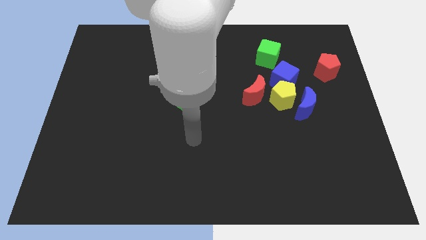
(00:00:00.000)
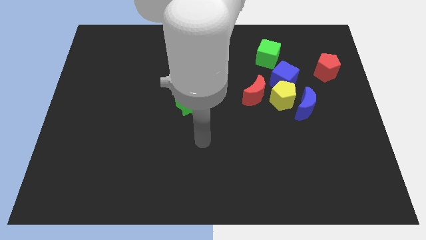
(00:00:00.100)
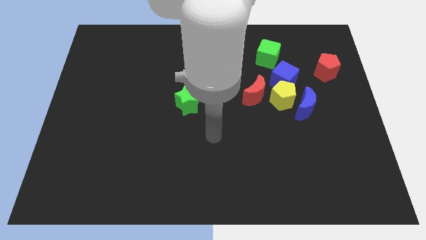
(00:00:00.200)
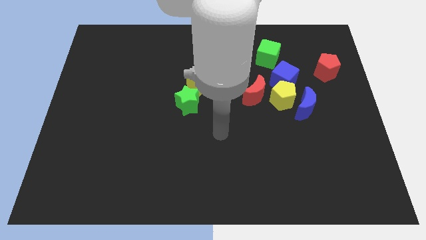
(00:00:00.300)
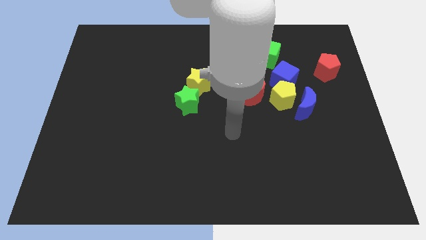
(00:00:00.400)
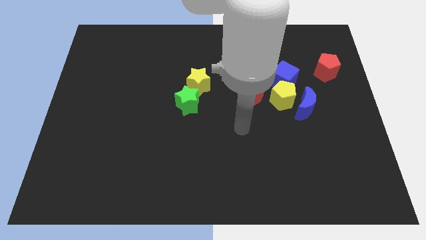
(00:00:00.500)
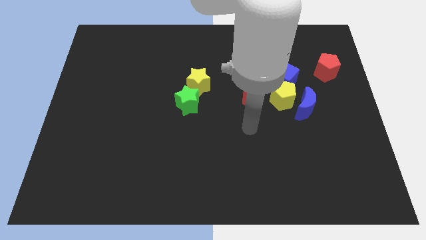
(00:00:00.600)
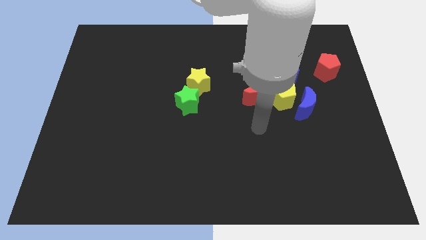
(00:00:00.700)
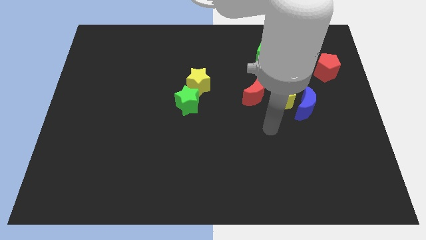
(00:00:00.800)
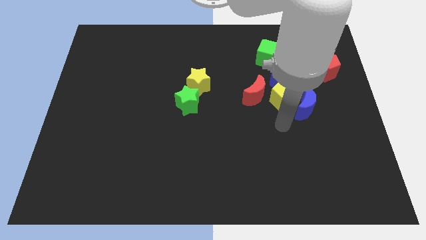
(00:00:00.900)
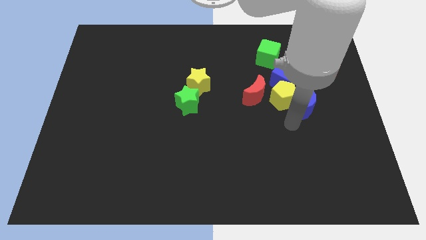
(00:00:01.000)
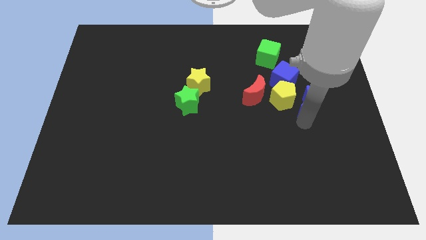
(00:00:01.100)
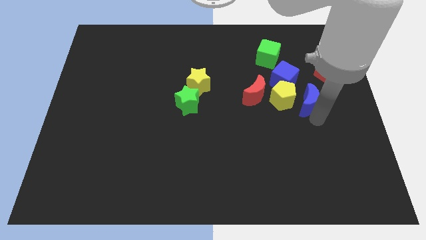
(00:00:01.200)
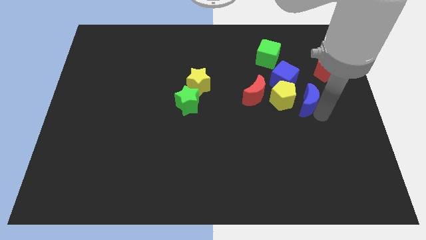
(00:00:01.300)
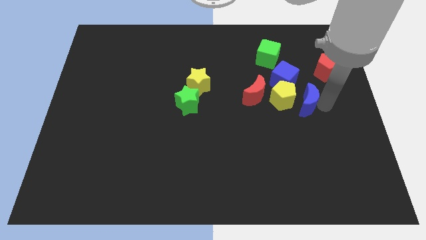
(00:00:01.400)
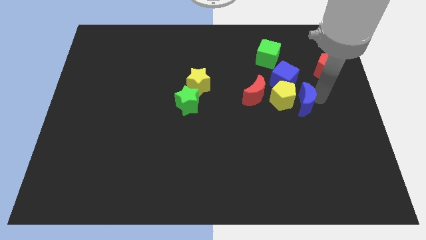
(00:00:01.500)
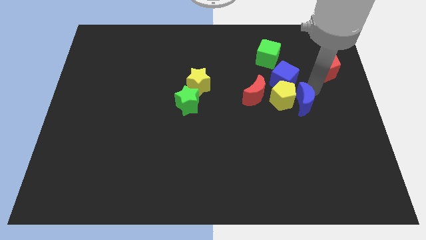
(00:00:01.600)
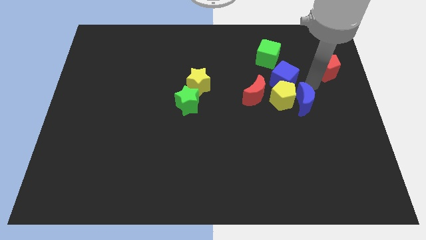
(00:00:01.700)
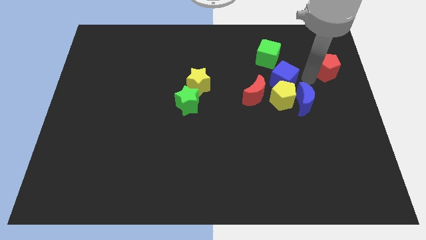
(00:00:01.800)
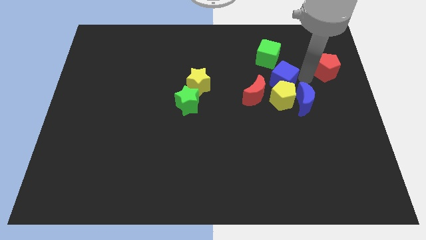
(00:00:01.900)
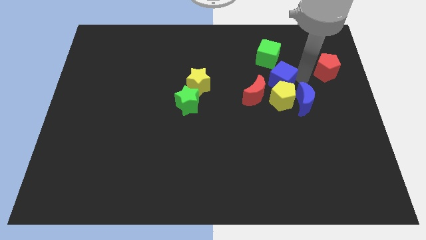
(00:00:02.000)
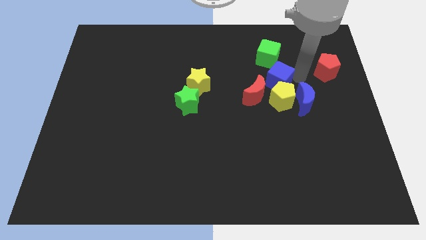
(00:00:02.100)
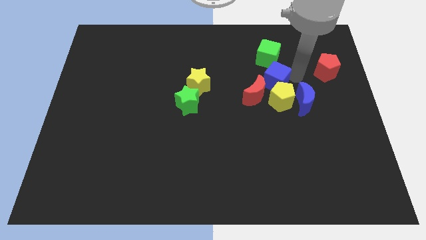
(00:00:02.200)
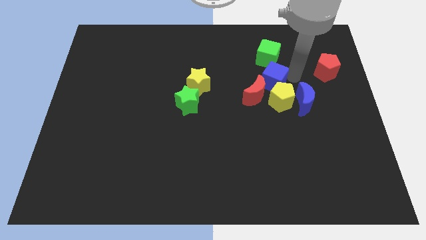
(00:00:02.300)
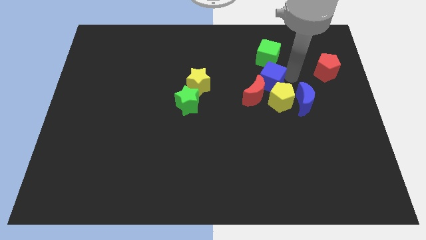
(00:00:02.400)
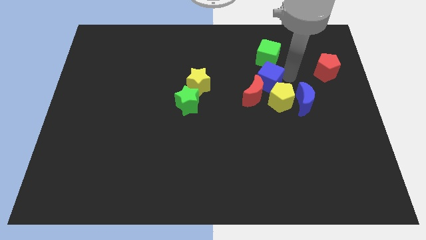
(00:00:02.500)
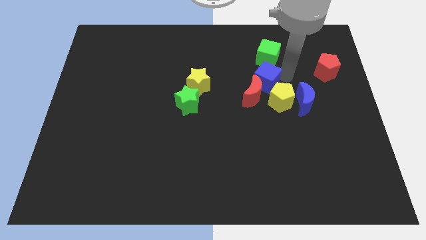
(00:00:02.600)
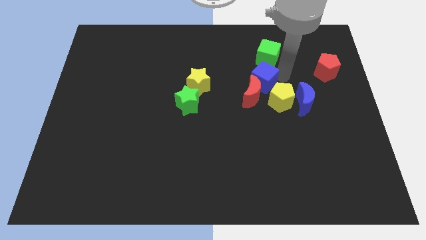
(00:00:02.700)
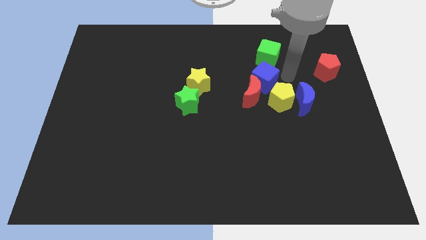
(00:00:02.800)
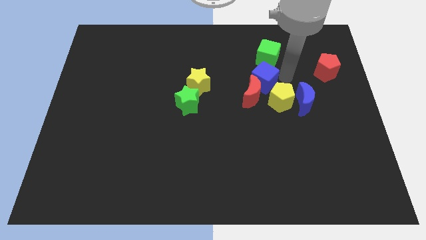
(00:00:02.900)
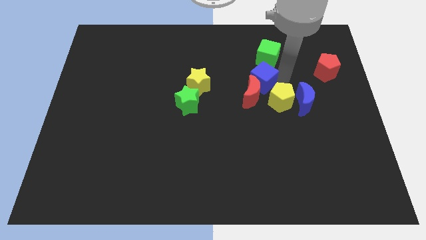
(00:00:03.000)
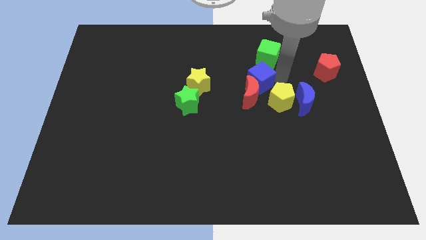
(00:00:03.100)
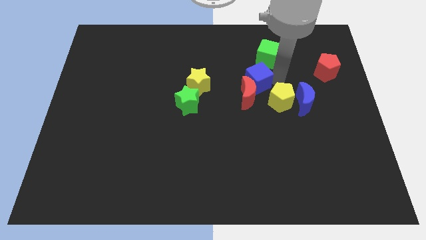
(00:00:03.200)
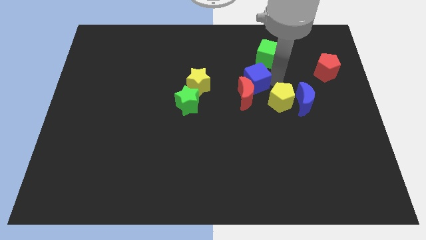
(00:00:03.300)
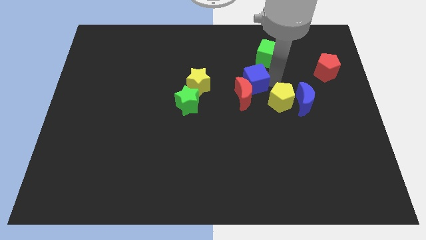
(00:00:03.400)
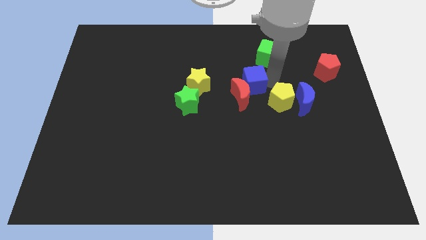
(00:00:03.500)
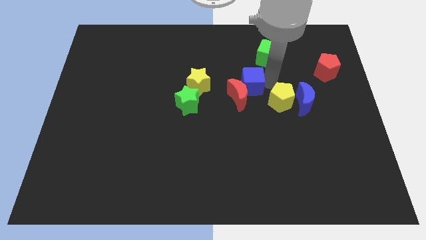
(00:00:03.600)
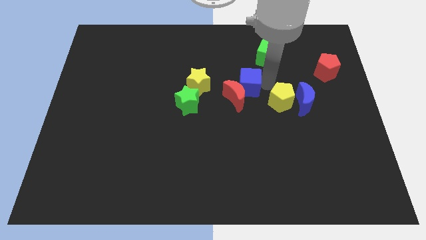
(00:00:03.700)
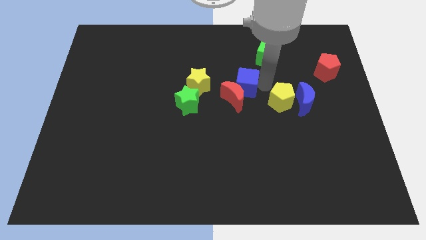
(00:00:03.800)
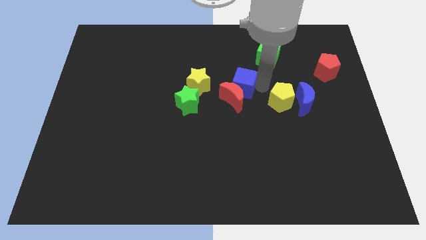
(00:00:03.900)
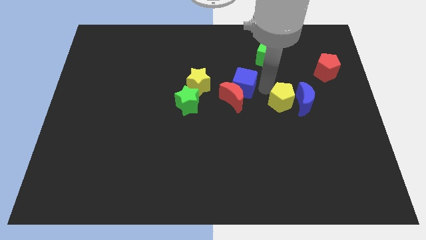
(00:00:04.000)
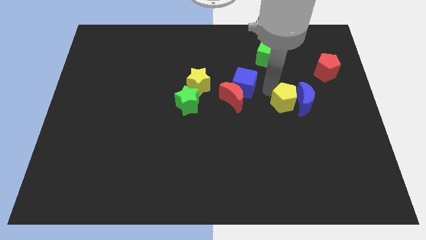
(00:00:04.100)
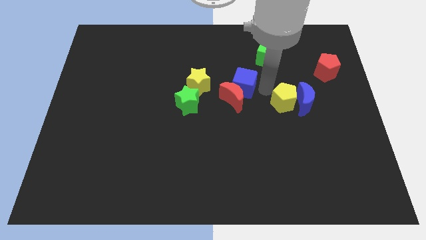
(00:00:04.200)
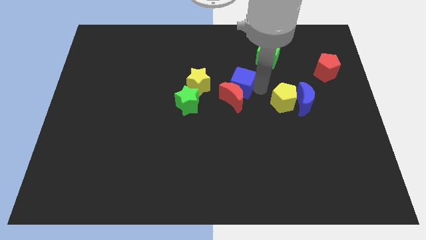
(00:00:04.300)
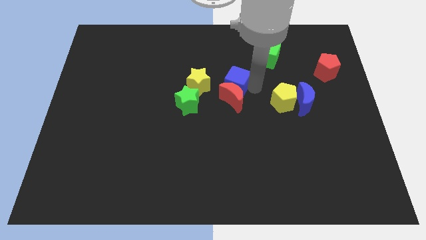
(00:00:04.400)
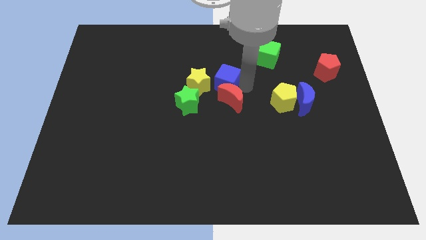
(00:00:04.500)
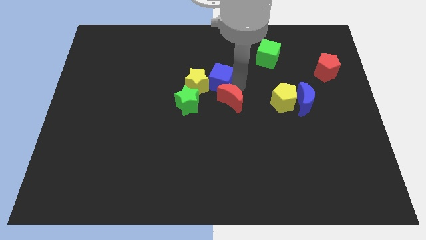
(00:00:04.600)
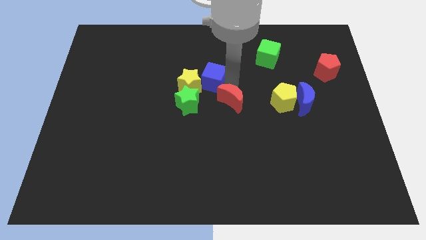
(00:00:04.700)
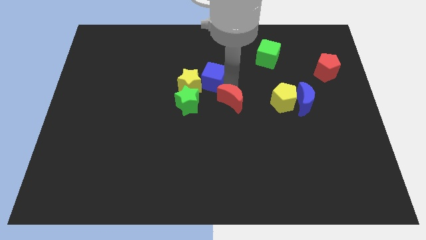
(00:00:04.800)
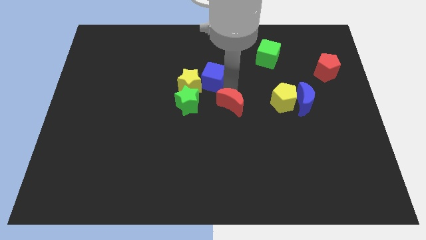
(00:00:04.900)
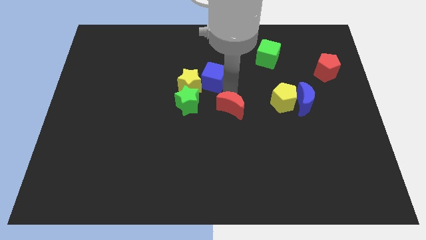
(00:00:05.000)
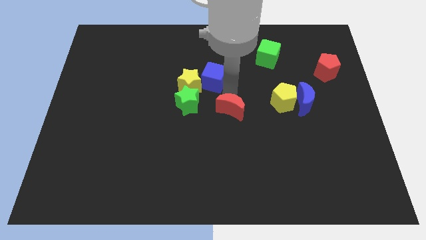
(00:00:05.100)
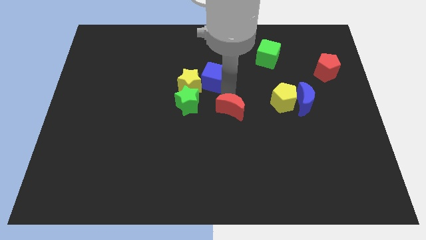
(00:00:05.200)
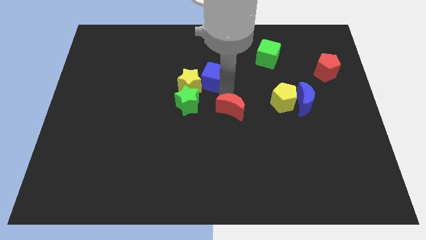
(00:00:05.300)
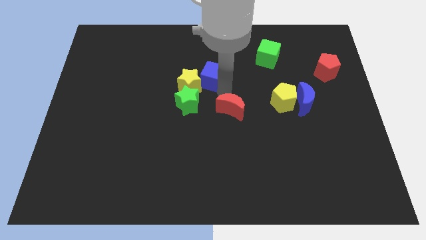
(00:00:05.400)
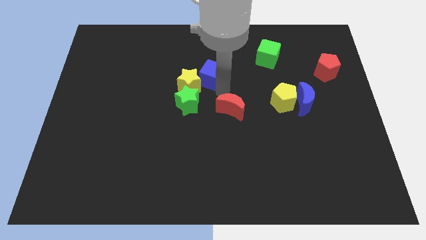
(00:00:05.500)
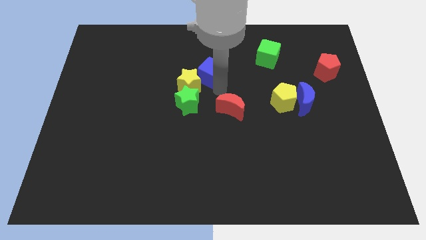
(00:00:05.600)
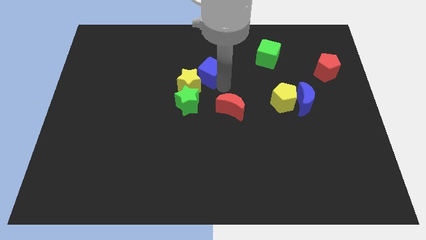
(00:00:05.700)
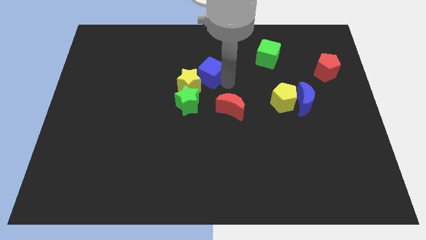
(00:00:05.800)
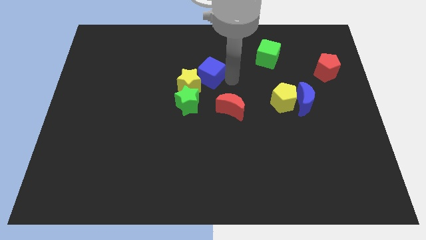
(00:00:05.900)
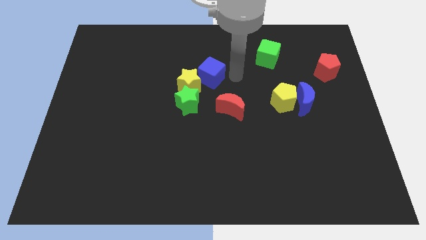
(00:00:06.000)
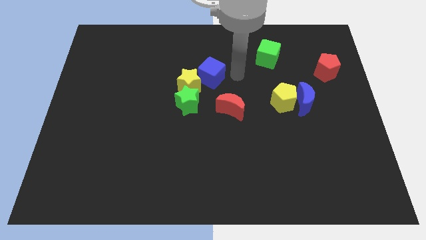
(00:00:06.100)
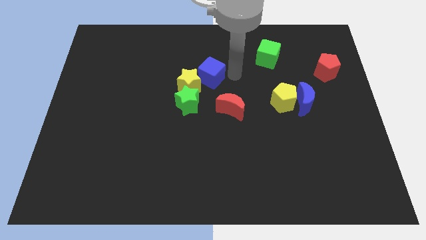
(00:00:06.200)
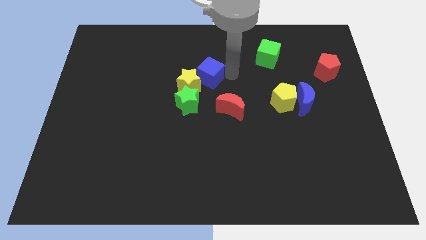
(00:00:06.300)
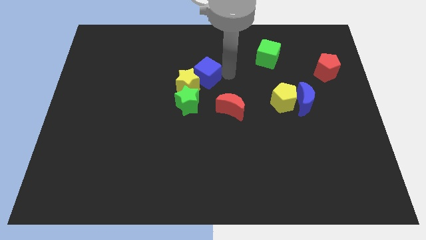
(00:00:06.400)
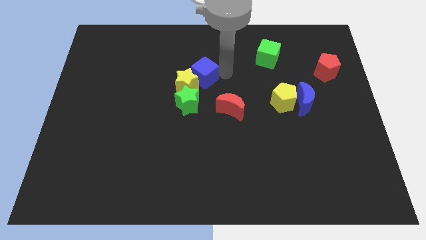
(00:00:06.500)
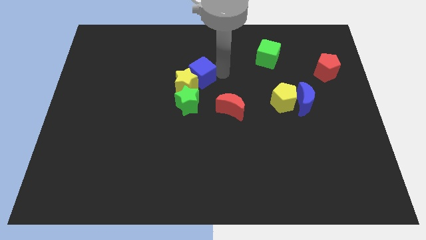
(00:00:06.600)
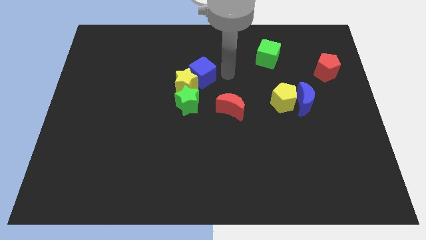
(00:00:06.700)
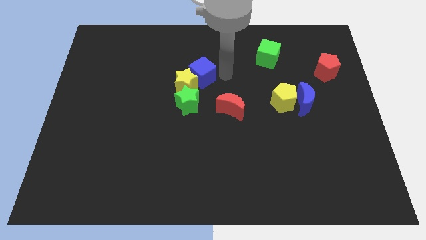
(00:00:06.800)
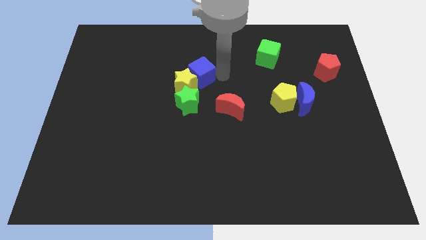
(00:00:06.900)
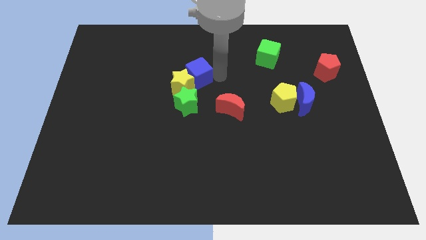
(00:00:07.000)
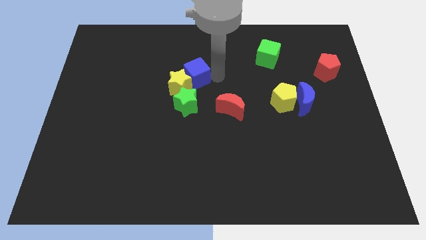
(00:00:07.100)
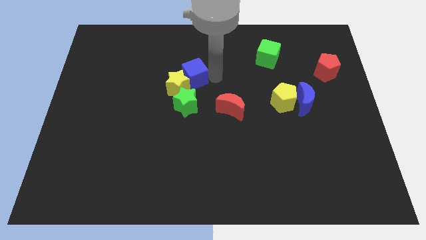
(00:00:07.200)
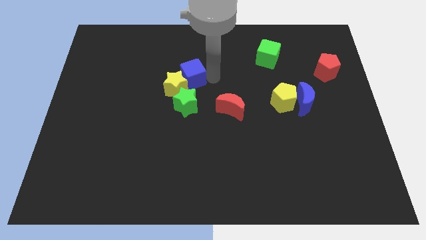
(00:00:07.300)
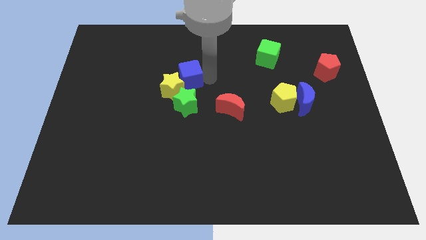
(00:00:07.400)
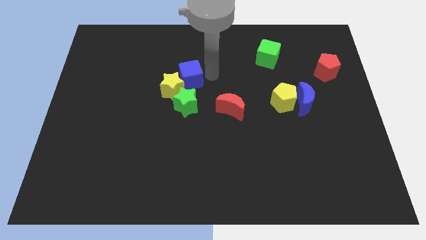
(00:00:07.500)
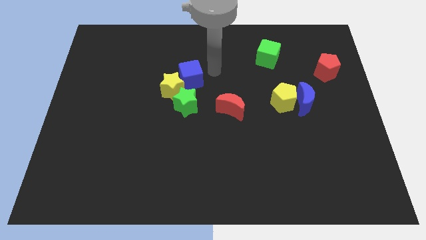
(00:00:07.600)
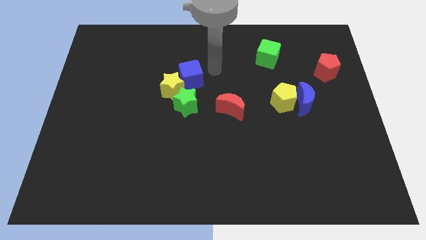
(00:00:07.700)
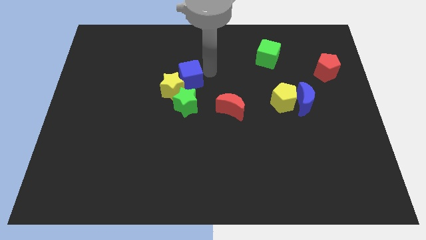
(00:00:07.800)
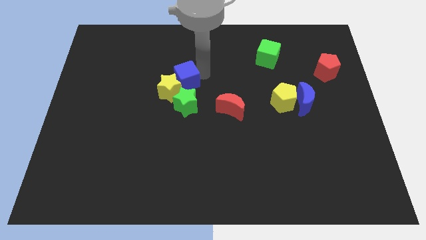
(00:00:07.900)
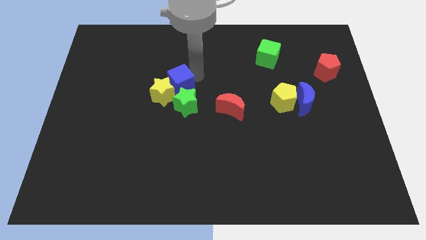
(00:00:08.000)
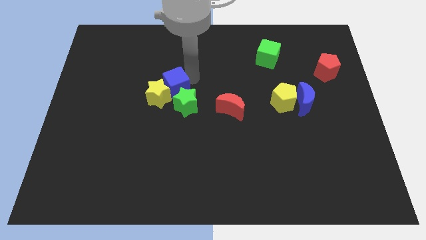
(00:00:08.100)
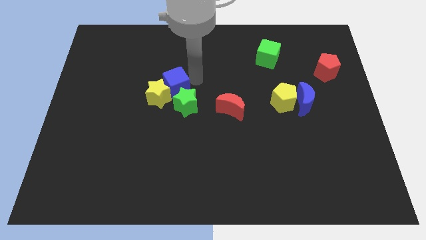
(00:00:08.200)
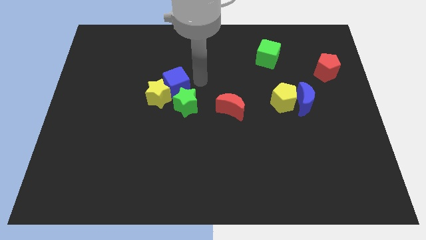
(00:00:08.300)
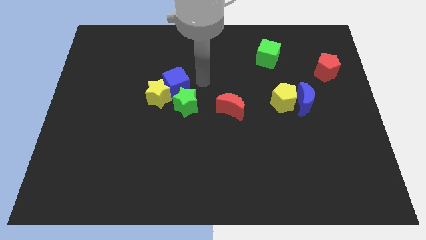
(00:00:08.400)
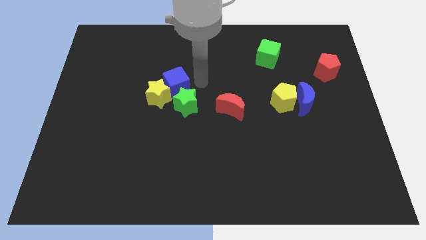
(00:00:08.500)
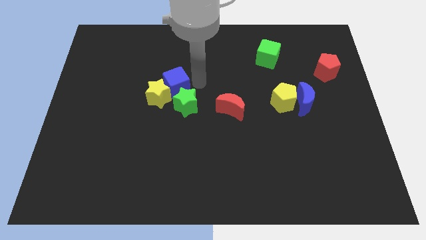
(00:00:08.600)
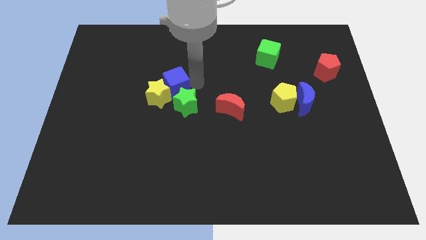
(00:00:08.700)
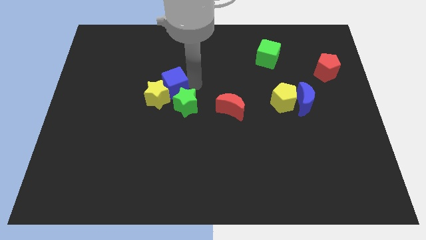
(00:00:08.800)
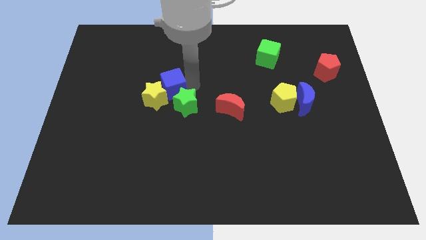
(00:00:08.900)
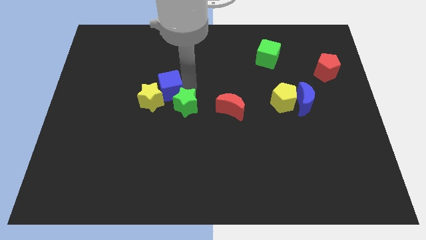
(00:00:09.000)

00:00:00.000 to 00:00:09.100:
slide the blue cube to the left of the green star
